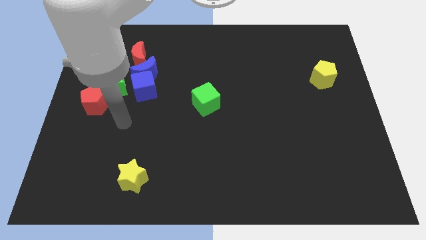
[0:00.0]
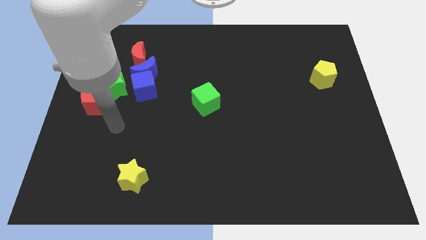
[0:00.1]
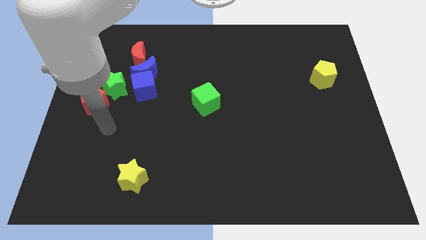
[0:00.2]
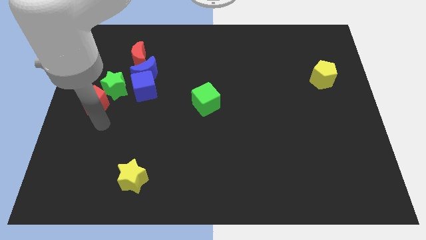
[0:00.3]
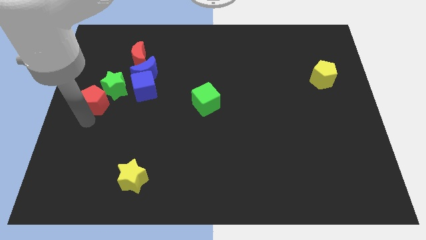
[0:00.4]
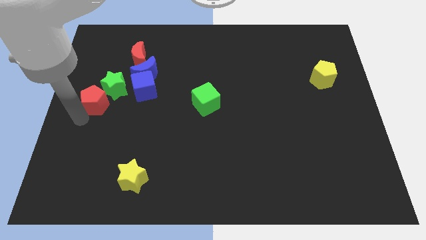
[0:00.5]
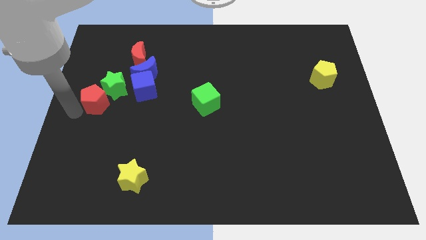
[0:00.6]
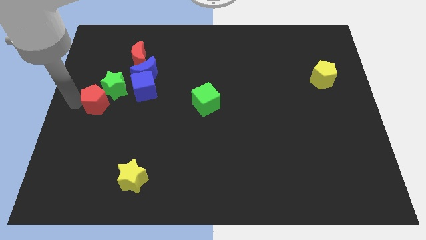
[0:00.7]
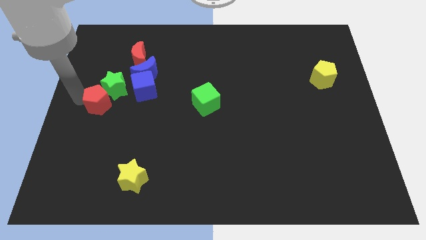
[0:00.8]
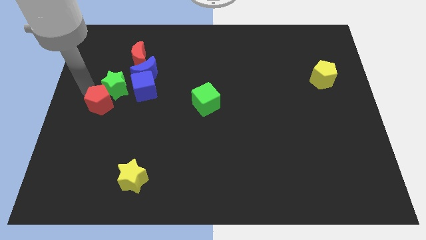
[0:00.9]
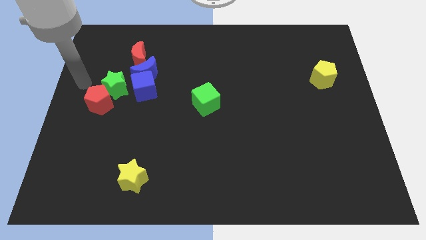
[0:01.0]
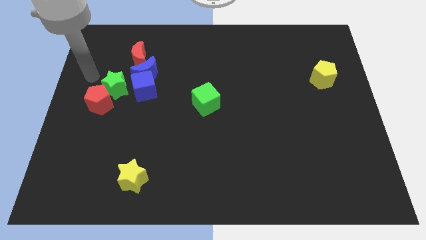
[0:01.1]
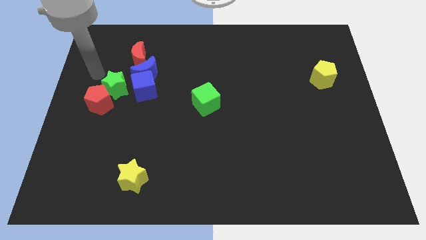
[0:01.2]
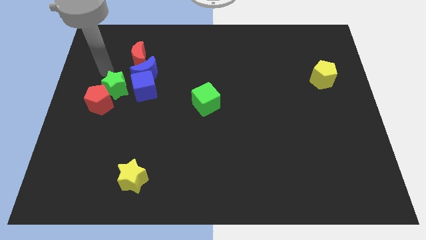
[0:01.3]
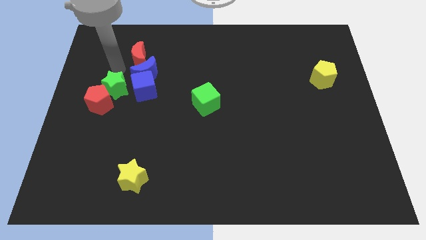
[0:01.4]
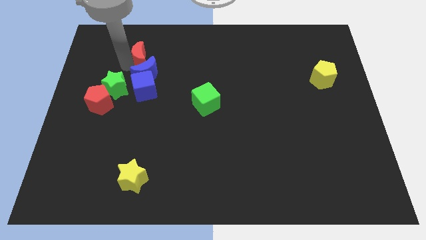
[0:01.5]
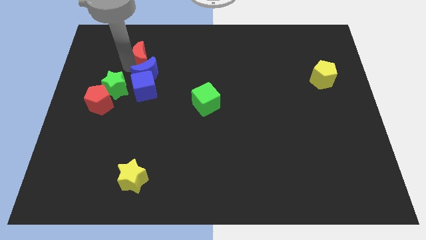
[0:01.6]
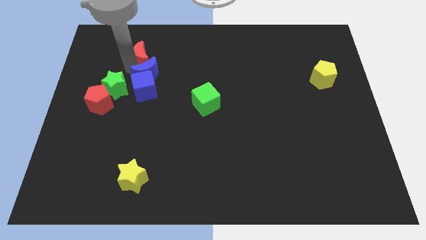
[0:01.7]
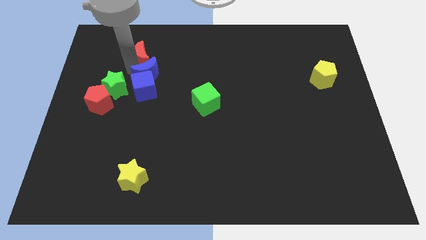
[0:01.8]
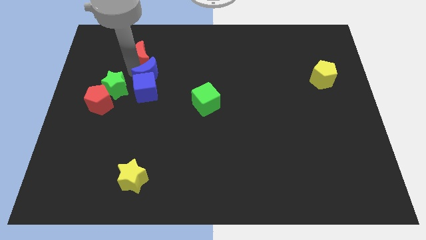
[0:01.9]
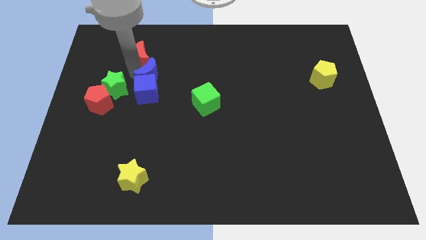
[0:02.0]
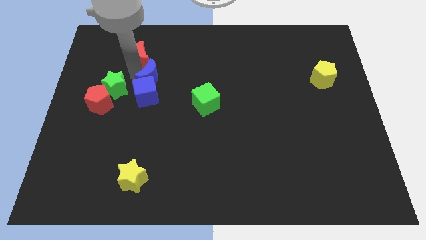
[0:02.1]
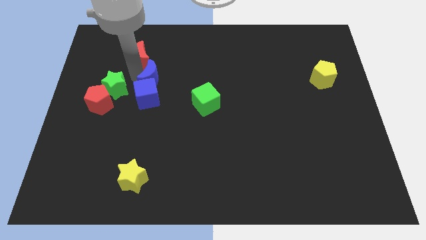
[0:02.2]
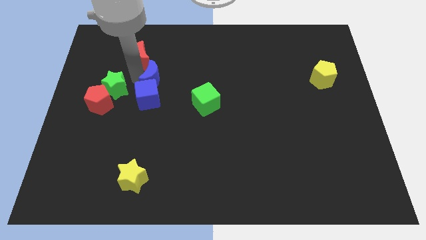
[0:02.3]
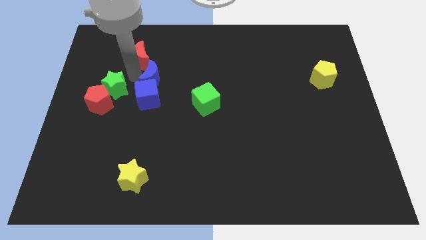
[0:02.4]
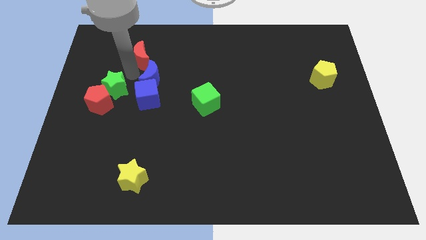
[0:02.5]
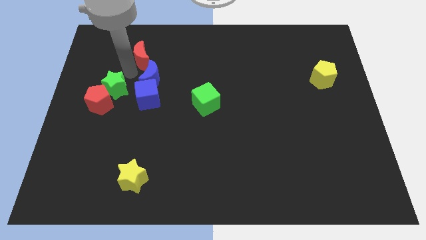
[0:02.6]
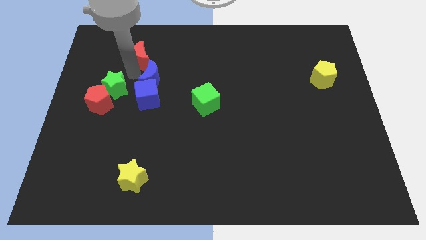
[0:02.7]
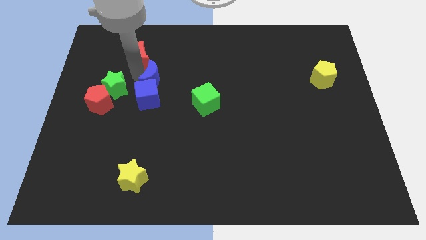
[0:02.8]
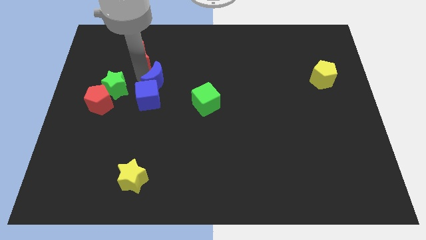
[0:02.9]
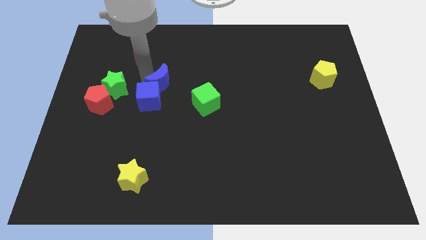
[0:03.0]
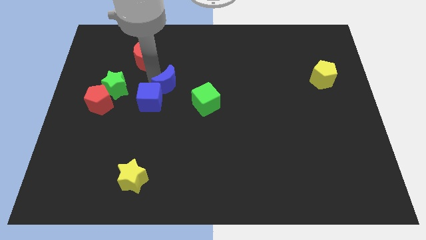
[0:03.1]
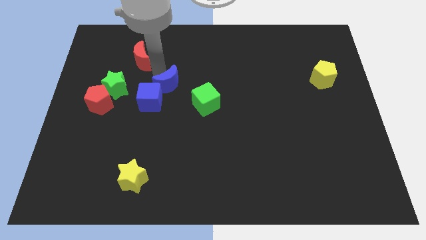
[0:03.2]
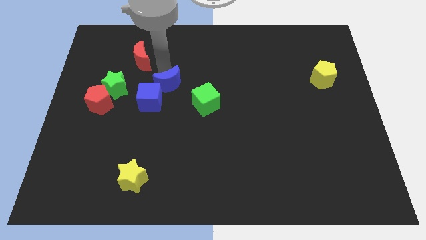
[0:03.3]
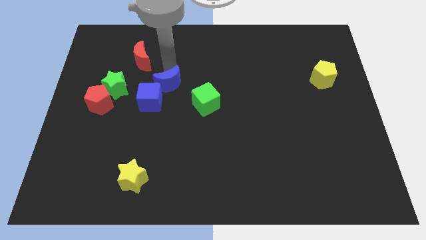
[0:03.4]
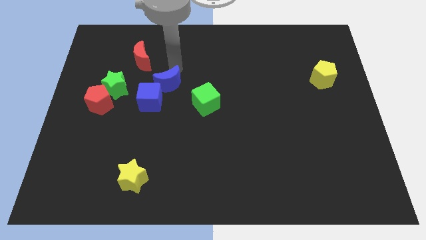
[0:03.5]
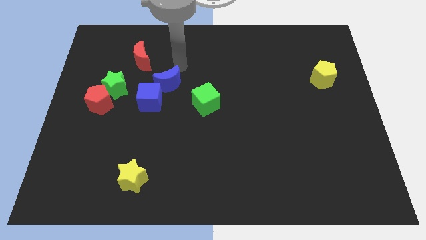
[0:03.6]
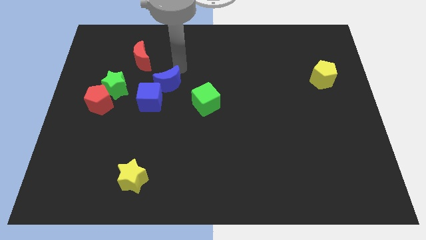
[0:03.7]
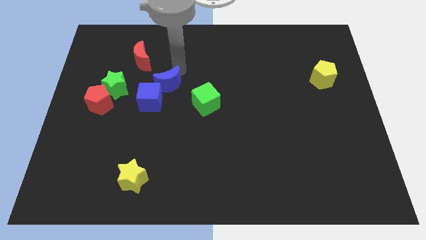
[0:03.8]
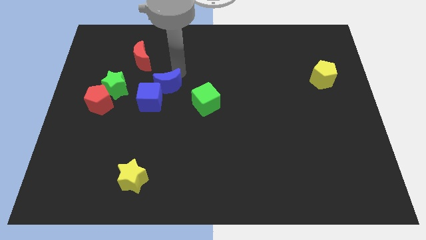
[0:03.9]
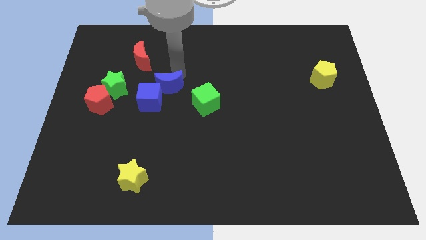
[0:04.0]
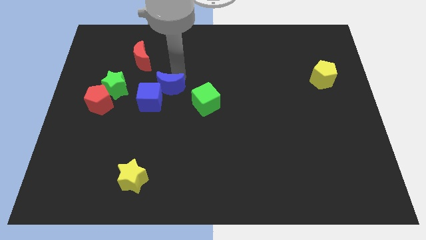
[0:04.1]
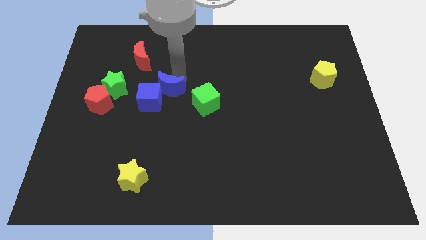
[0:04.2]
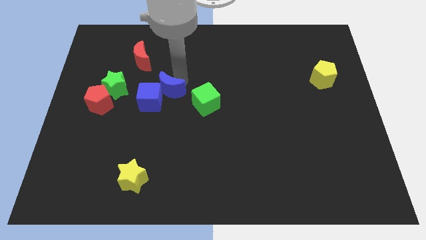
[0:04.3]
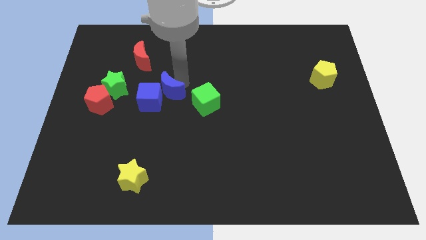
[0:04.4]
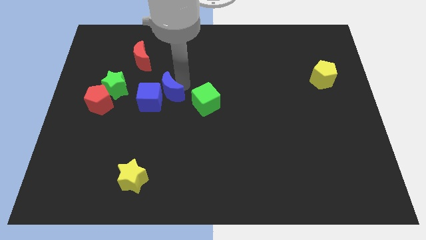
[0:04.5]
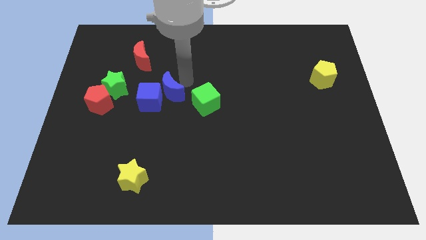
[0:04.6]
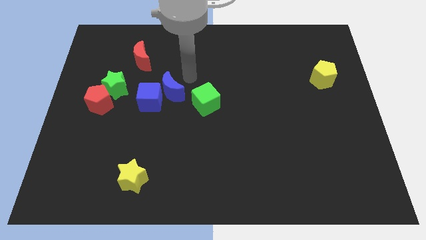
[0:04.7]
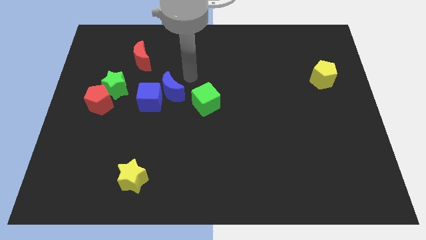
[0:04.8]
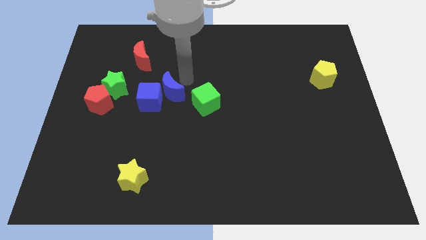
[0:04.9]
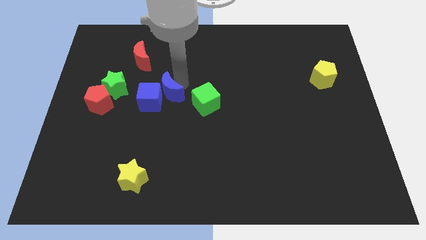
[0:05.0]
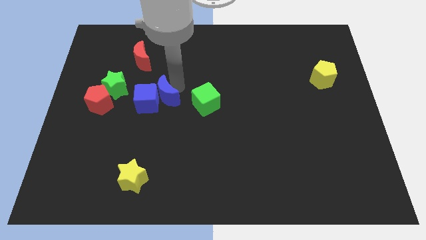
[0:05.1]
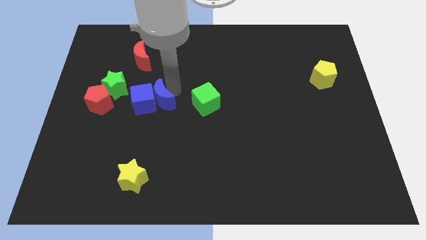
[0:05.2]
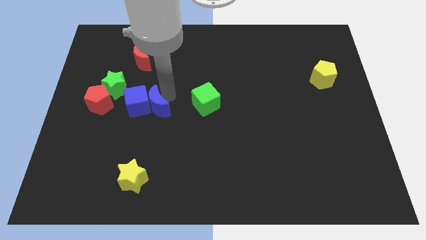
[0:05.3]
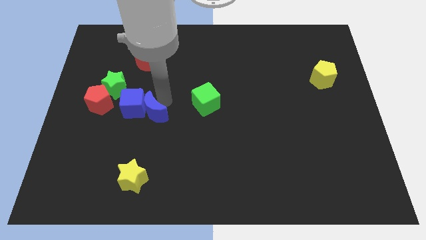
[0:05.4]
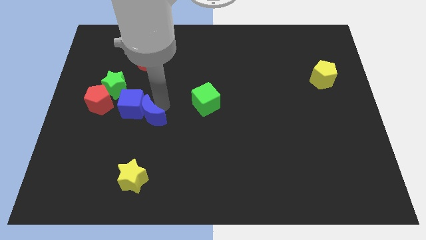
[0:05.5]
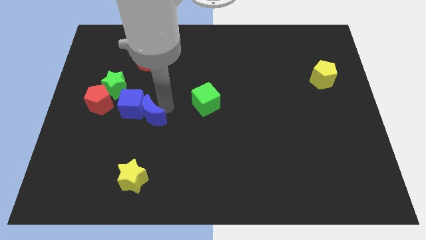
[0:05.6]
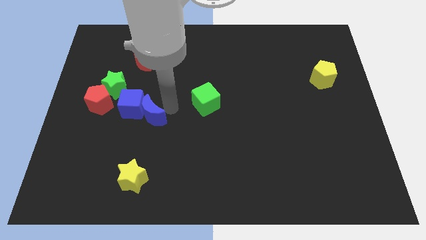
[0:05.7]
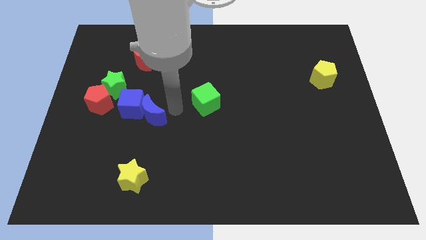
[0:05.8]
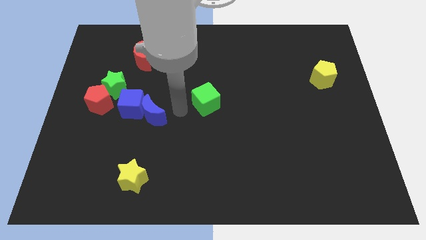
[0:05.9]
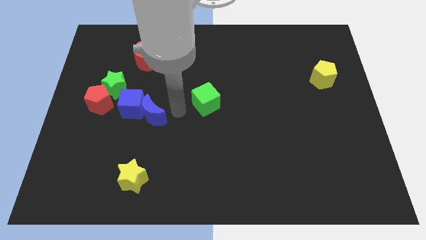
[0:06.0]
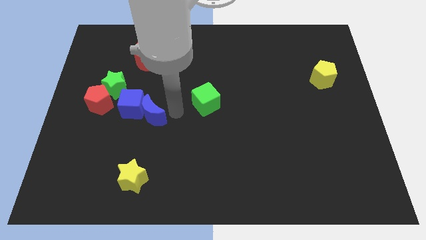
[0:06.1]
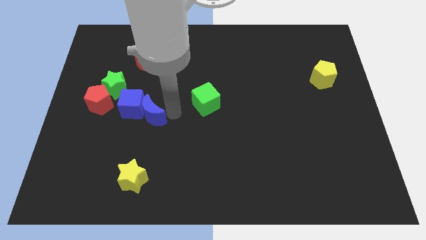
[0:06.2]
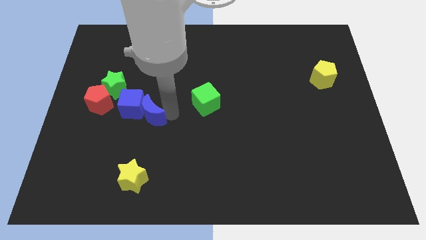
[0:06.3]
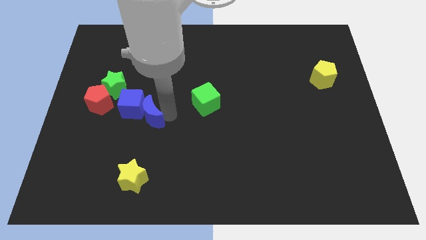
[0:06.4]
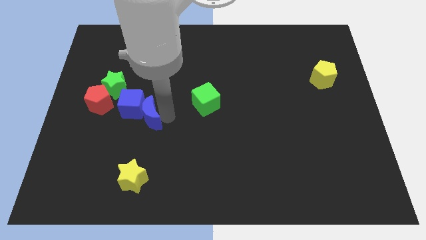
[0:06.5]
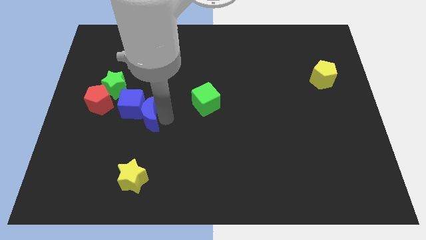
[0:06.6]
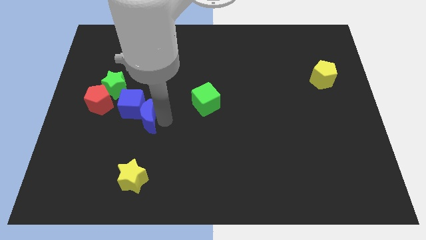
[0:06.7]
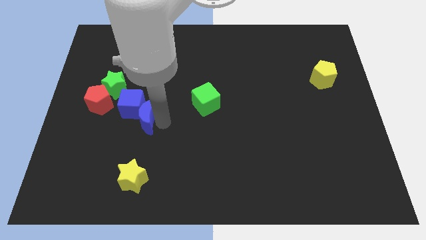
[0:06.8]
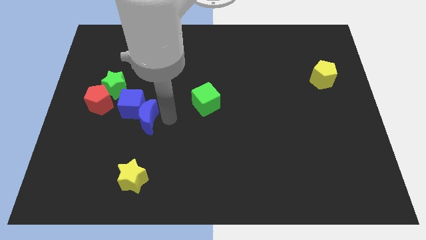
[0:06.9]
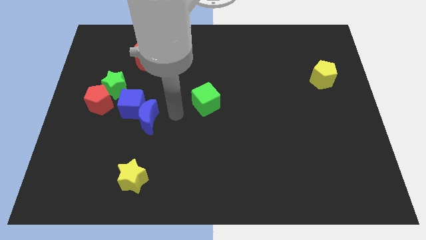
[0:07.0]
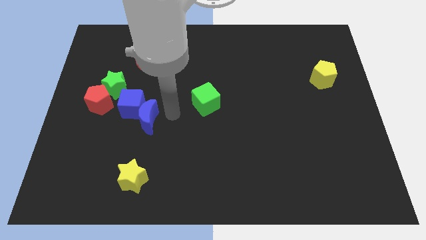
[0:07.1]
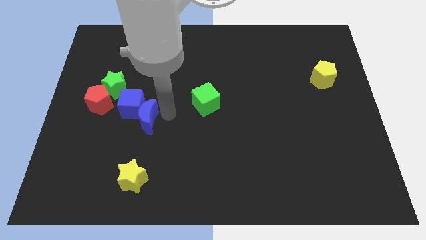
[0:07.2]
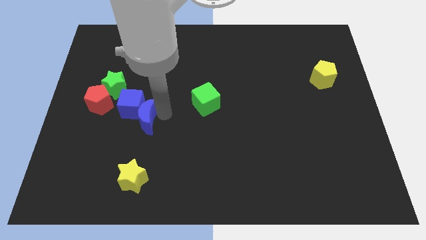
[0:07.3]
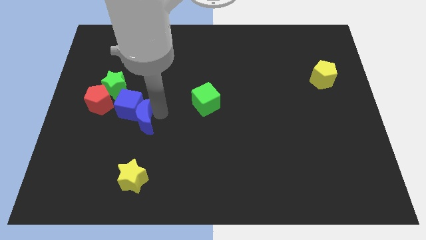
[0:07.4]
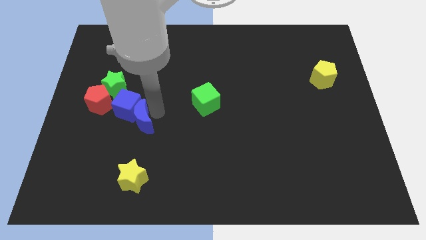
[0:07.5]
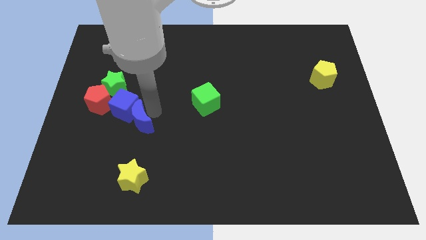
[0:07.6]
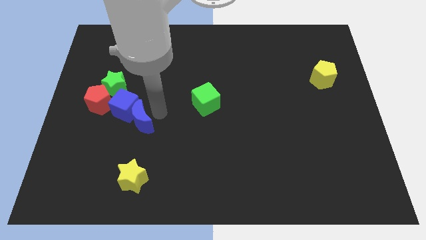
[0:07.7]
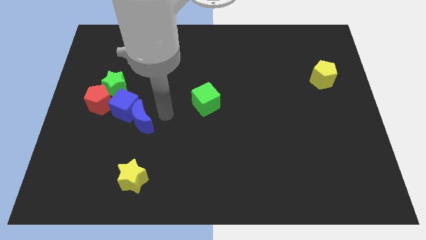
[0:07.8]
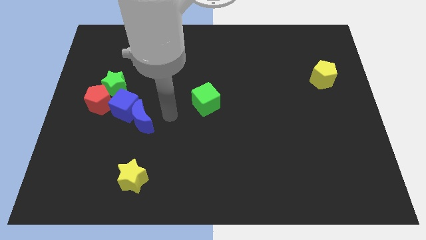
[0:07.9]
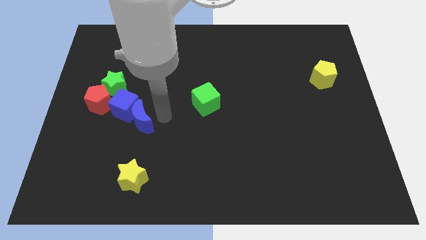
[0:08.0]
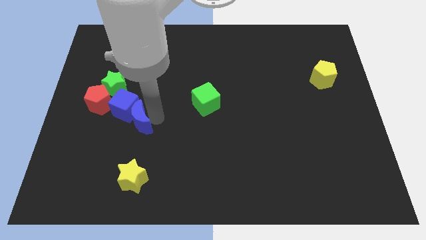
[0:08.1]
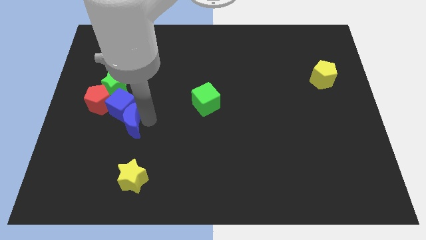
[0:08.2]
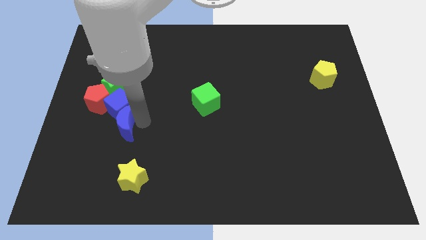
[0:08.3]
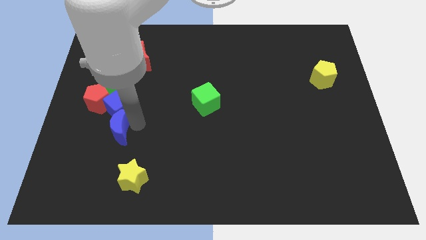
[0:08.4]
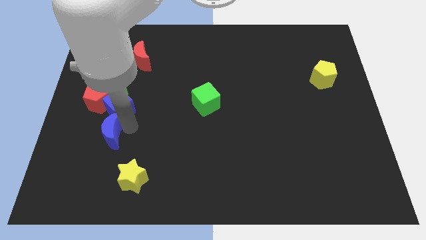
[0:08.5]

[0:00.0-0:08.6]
slide the blue moon to the bottom side of the red pentagon
